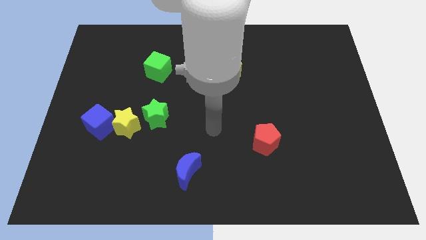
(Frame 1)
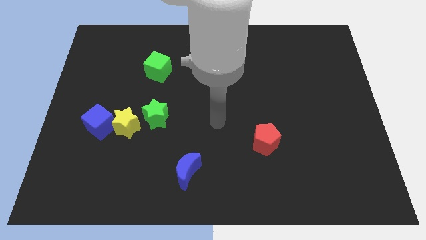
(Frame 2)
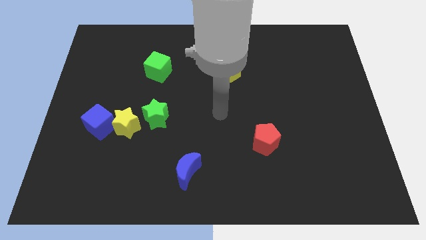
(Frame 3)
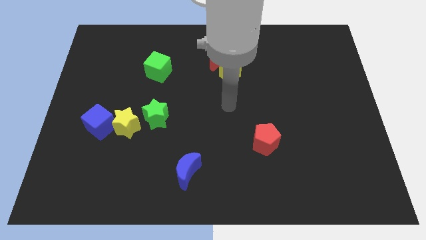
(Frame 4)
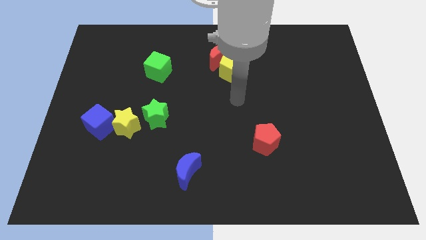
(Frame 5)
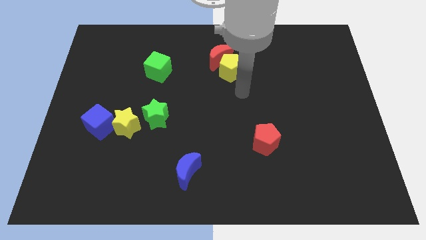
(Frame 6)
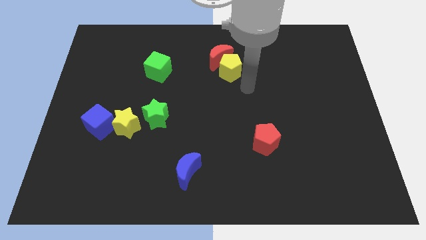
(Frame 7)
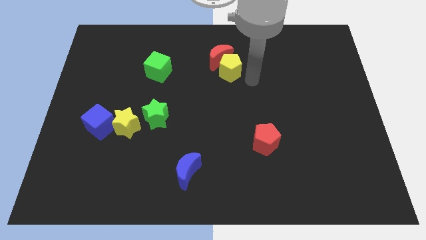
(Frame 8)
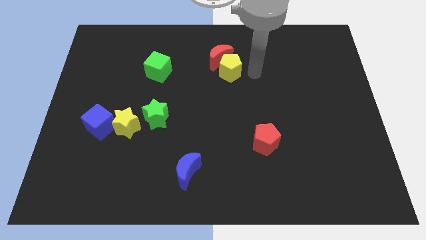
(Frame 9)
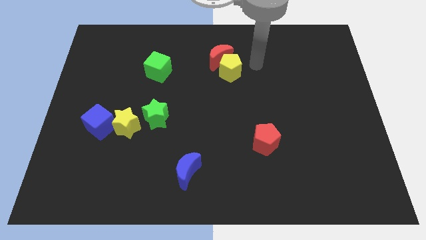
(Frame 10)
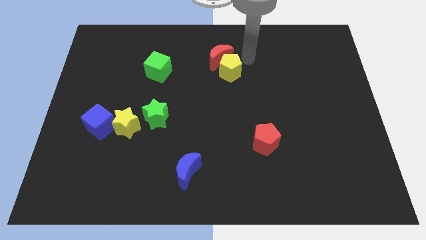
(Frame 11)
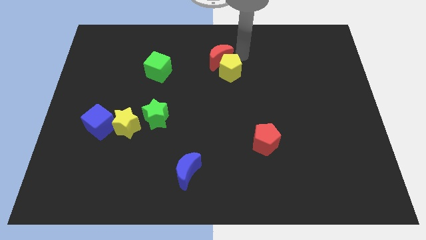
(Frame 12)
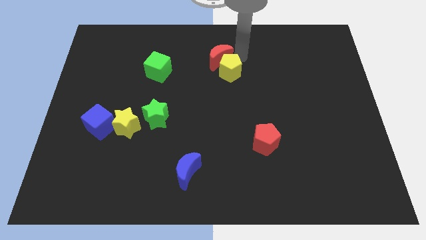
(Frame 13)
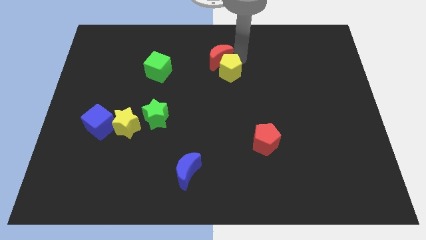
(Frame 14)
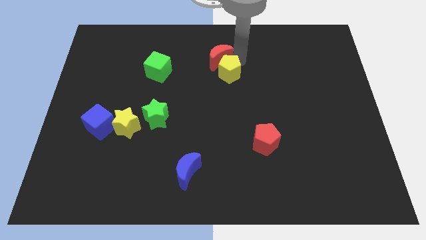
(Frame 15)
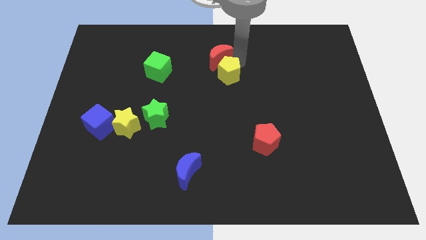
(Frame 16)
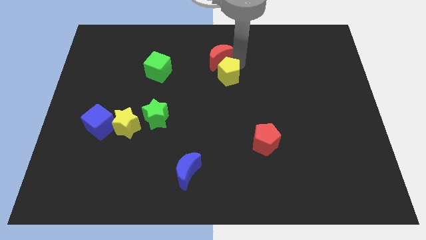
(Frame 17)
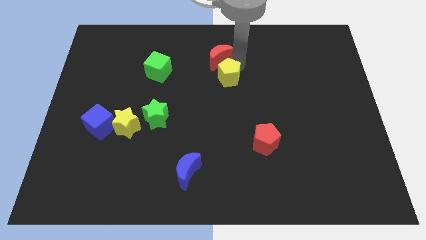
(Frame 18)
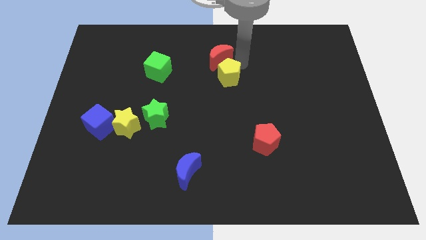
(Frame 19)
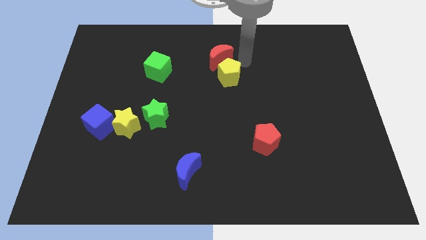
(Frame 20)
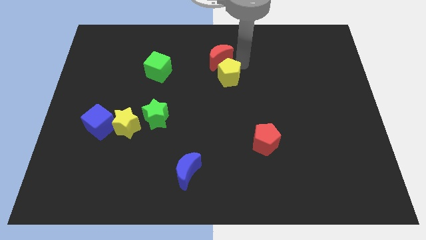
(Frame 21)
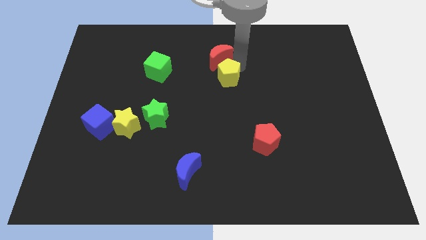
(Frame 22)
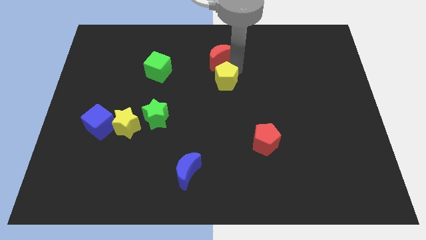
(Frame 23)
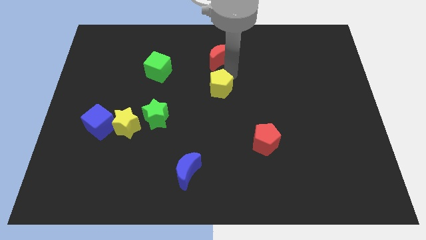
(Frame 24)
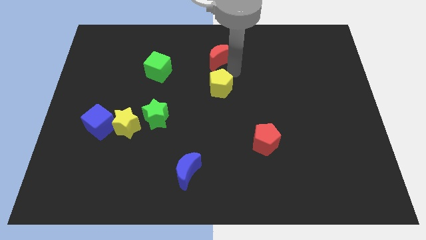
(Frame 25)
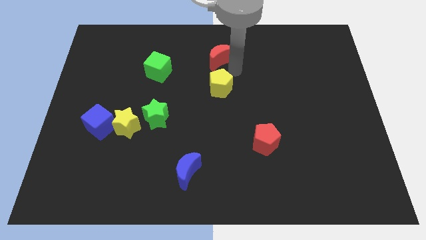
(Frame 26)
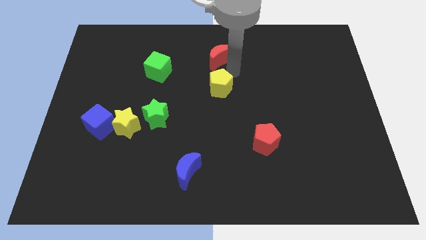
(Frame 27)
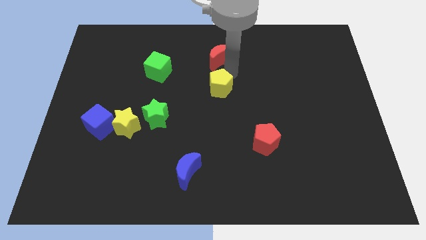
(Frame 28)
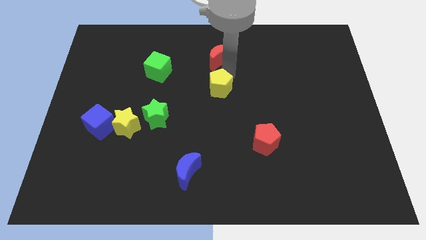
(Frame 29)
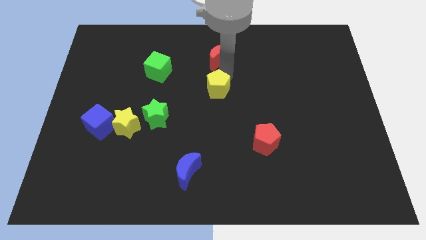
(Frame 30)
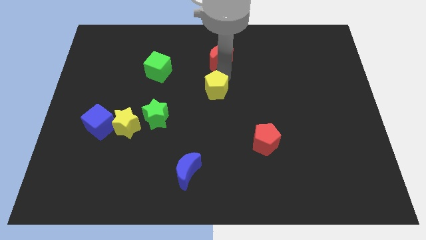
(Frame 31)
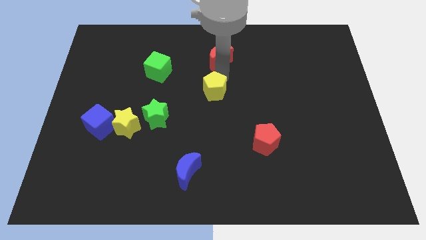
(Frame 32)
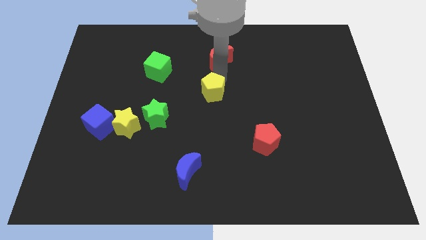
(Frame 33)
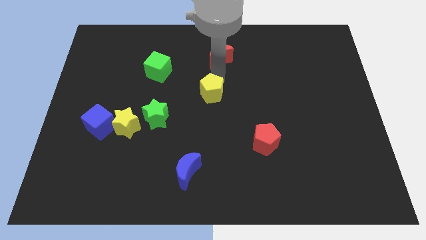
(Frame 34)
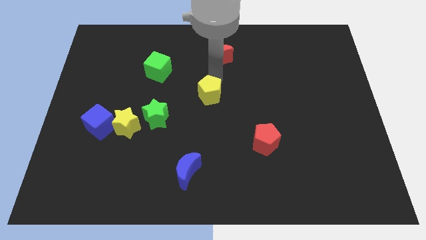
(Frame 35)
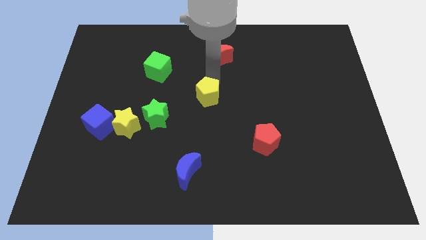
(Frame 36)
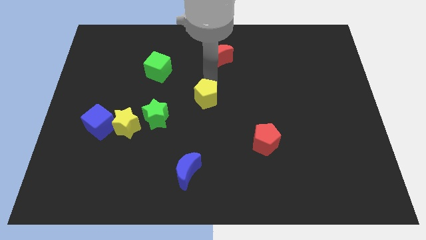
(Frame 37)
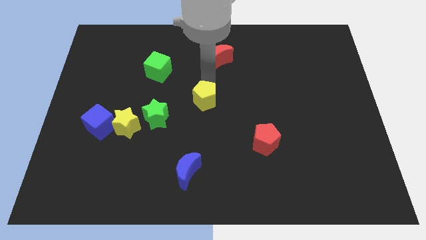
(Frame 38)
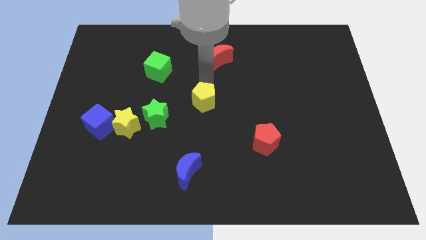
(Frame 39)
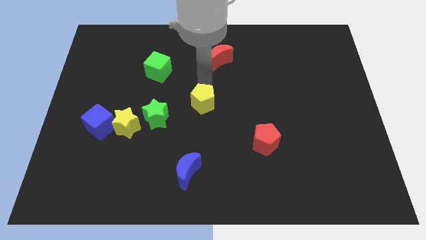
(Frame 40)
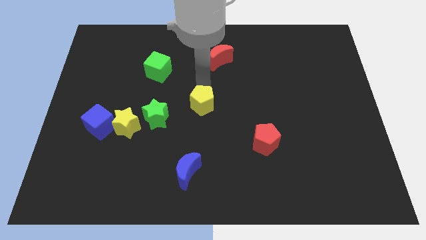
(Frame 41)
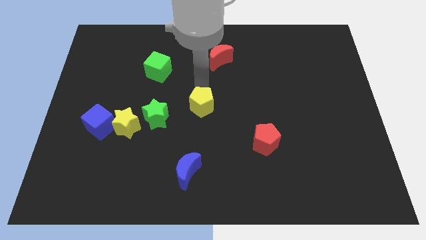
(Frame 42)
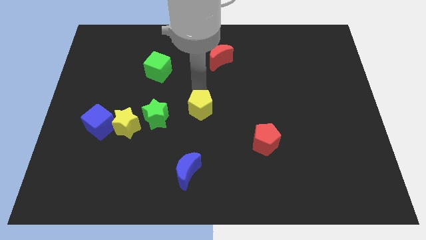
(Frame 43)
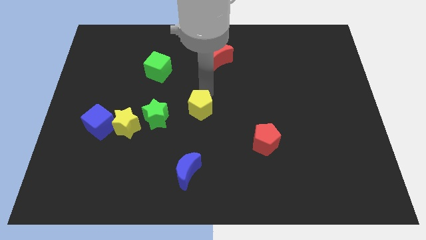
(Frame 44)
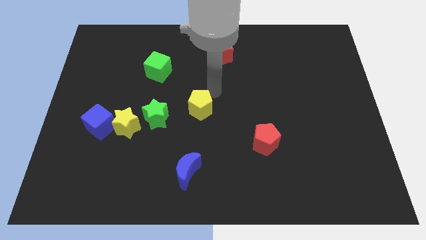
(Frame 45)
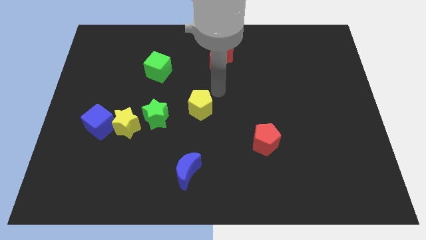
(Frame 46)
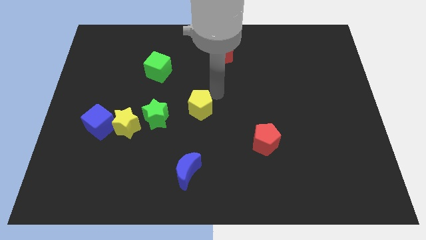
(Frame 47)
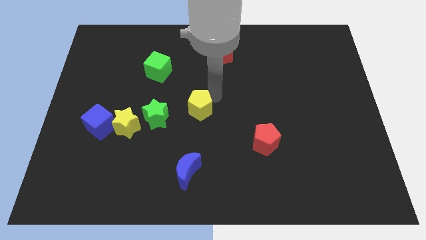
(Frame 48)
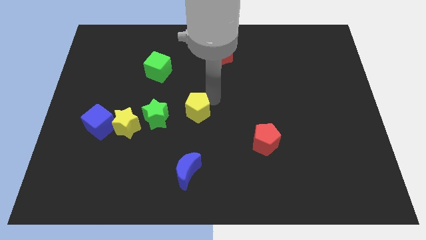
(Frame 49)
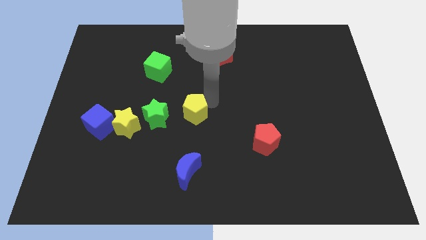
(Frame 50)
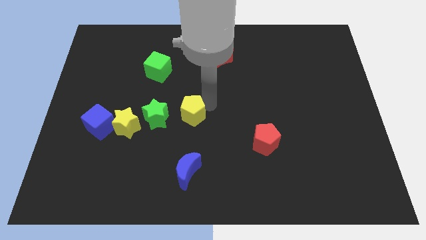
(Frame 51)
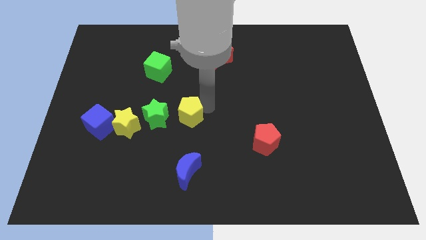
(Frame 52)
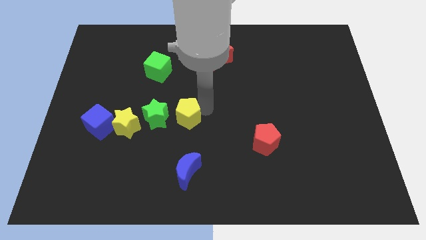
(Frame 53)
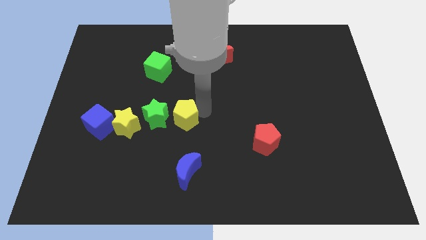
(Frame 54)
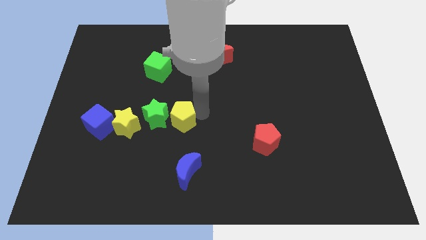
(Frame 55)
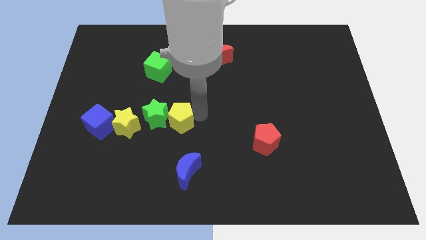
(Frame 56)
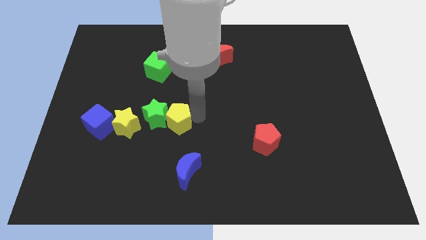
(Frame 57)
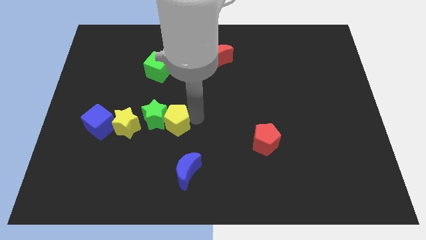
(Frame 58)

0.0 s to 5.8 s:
slide the yellow pentagon down and then to the left

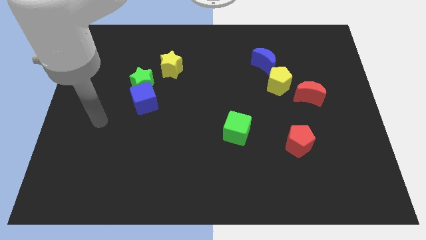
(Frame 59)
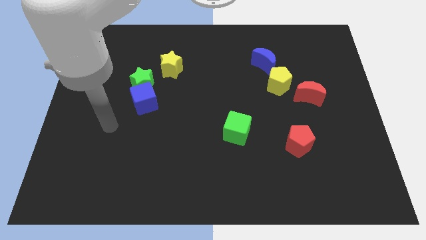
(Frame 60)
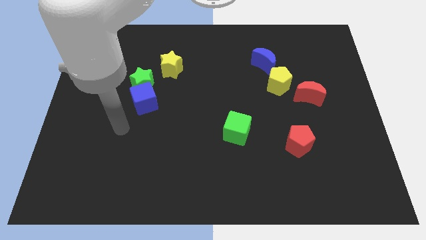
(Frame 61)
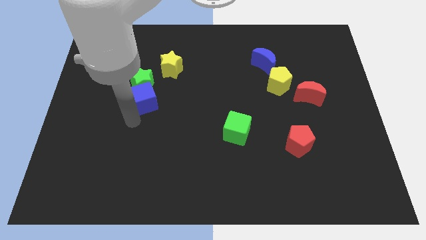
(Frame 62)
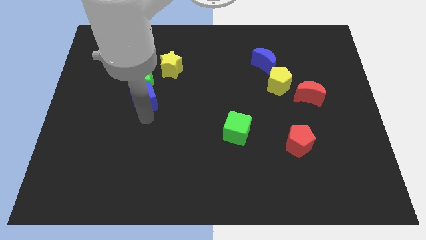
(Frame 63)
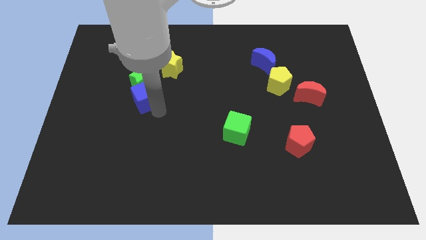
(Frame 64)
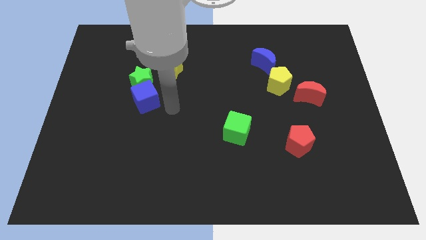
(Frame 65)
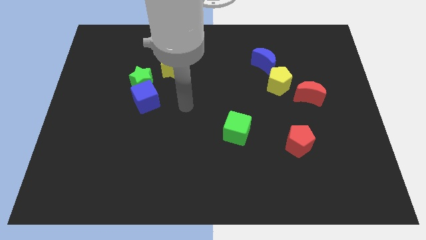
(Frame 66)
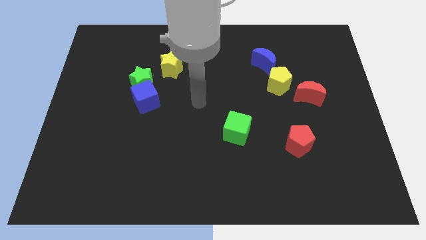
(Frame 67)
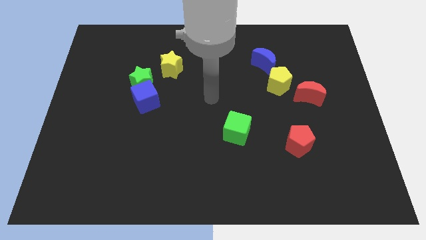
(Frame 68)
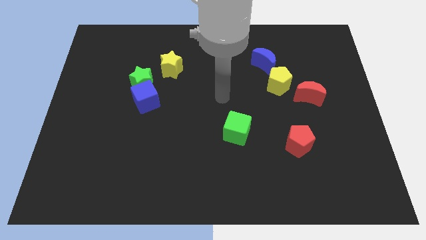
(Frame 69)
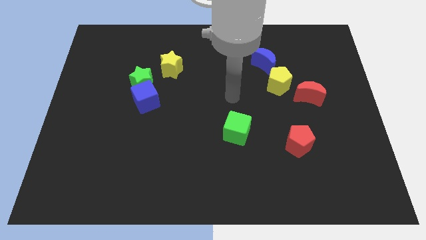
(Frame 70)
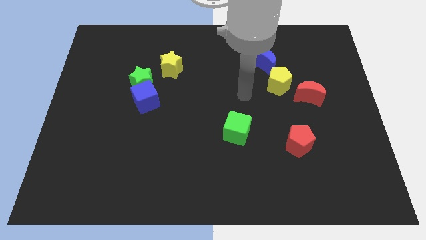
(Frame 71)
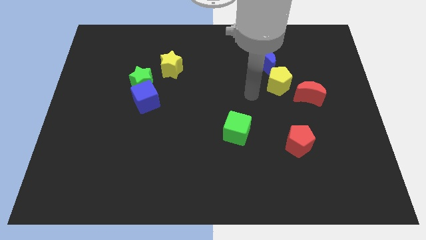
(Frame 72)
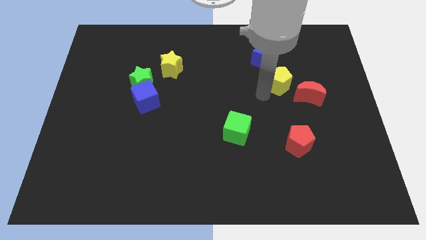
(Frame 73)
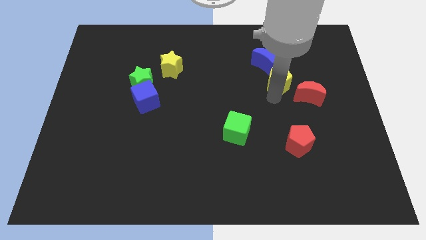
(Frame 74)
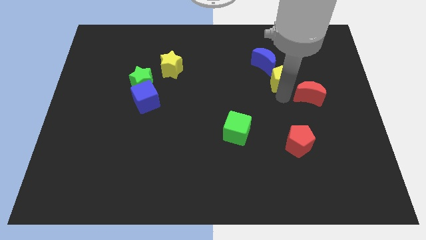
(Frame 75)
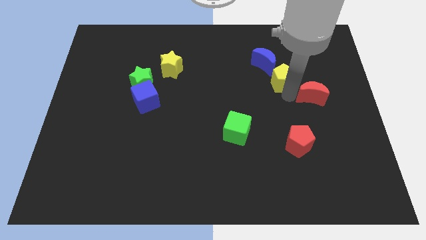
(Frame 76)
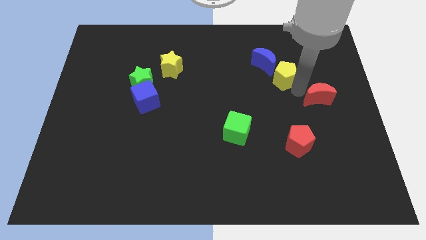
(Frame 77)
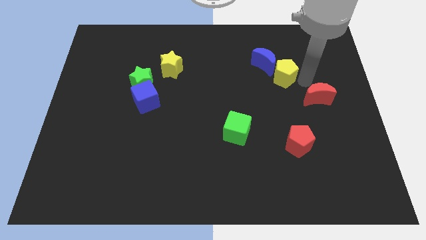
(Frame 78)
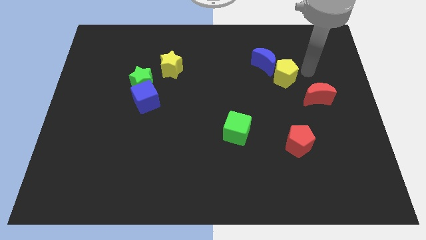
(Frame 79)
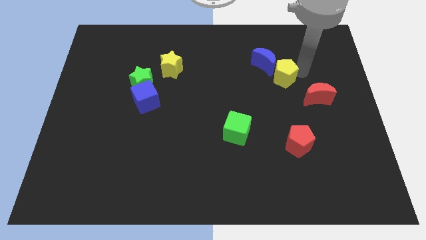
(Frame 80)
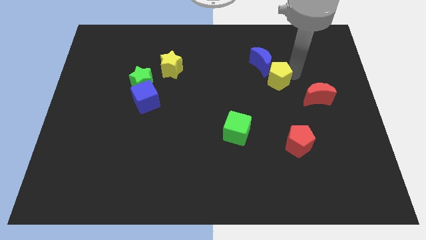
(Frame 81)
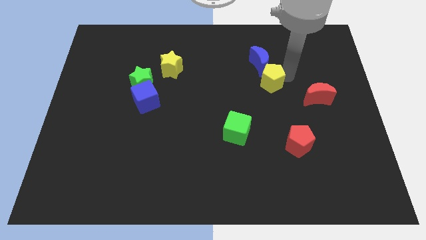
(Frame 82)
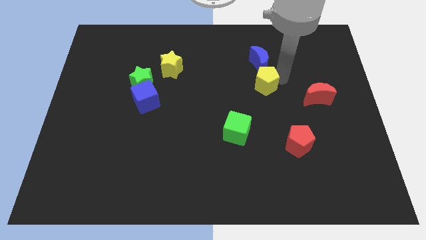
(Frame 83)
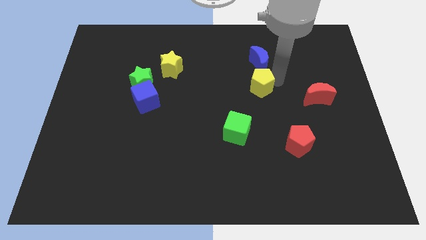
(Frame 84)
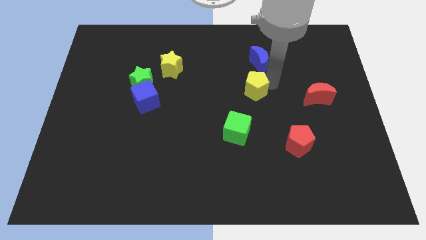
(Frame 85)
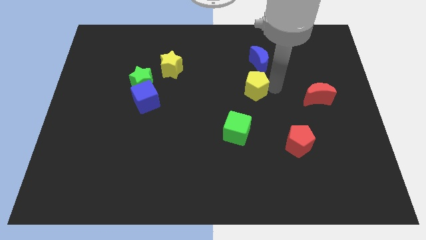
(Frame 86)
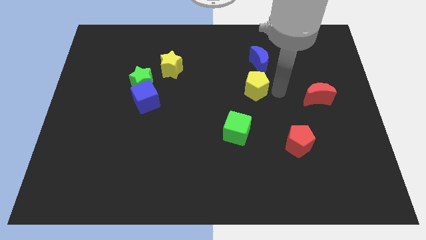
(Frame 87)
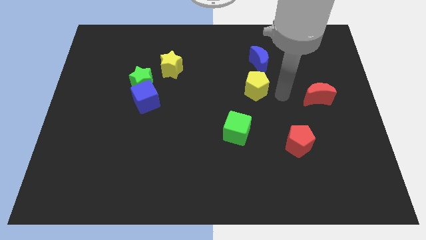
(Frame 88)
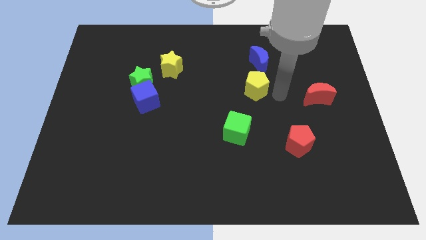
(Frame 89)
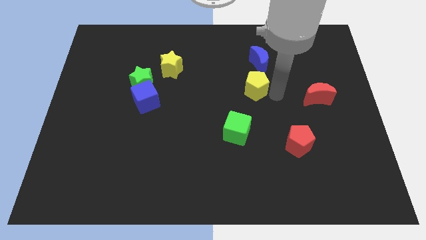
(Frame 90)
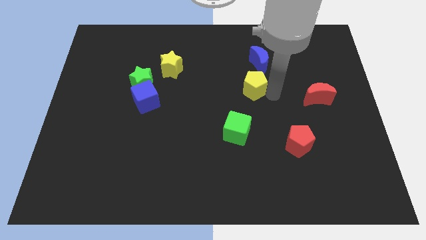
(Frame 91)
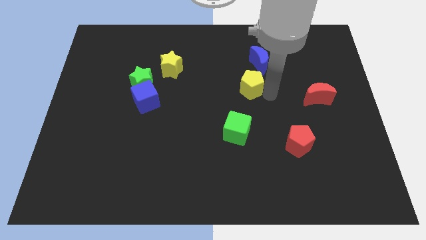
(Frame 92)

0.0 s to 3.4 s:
push the yellow pentagon left a little bit
